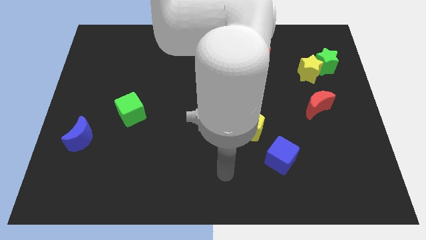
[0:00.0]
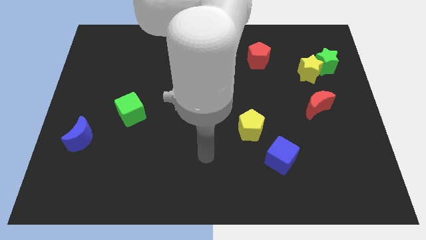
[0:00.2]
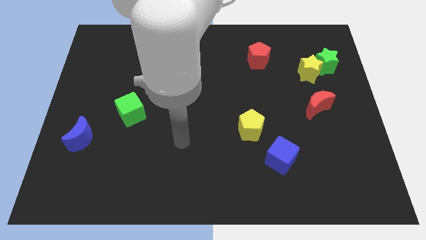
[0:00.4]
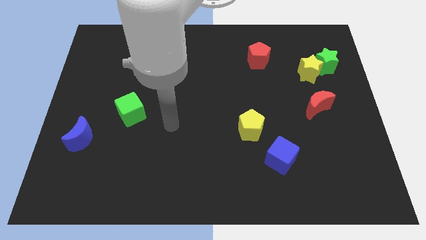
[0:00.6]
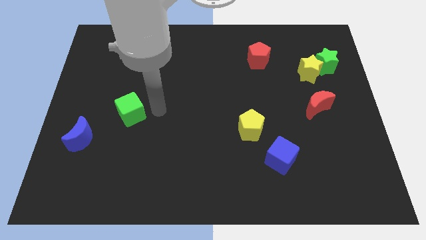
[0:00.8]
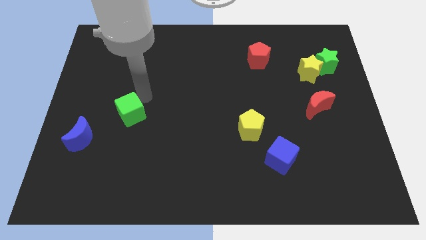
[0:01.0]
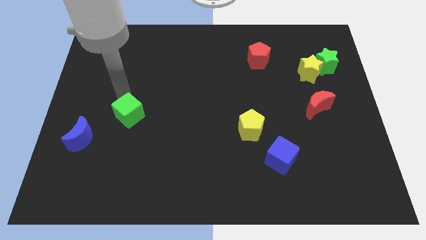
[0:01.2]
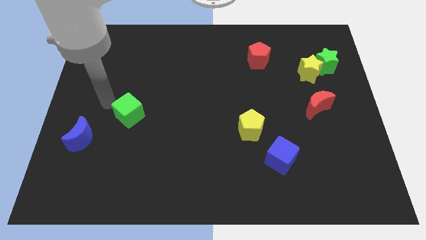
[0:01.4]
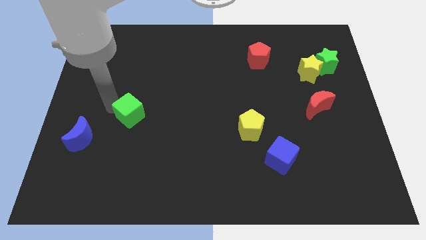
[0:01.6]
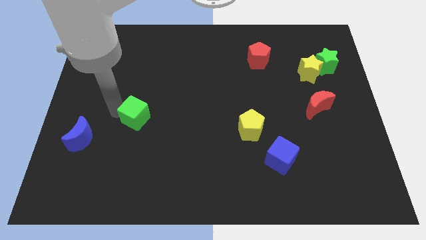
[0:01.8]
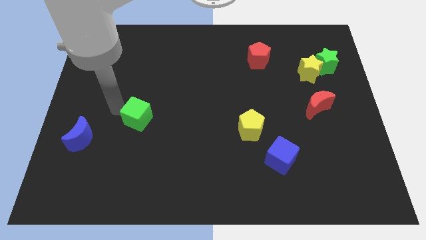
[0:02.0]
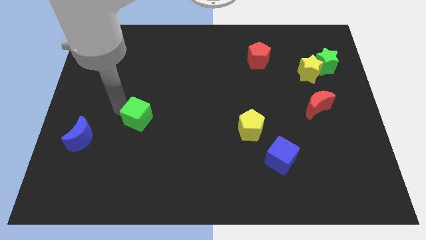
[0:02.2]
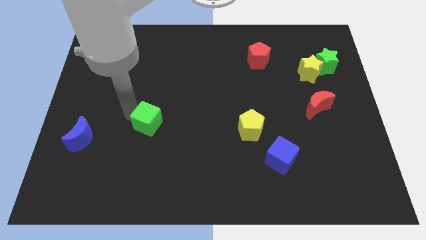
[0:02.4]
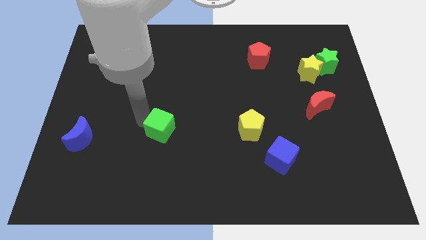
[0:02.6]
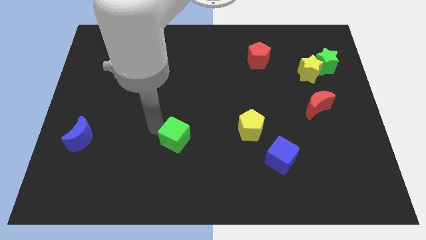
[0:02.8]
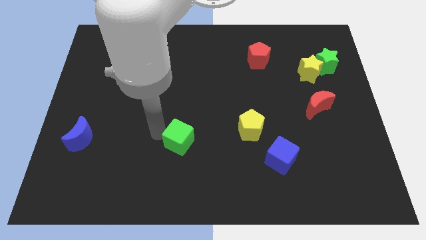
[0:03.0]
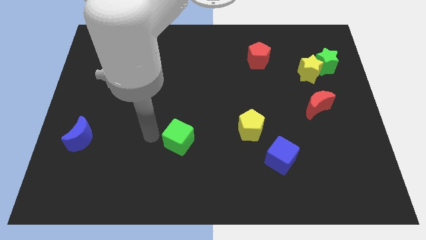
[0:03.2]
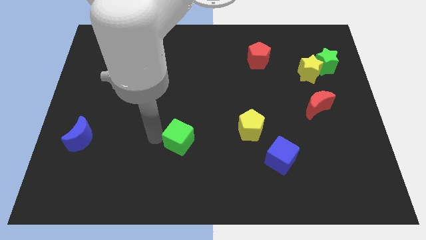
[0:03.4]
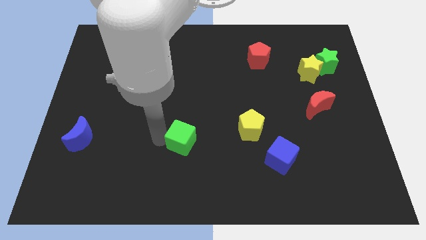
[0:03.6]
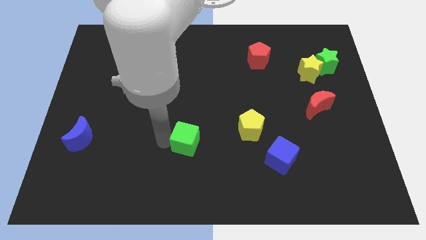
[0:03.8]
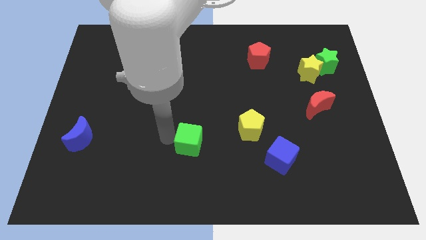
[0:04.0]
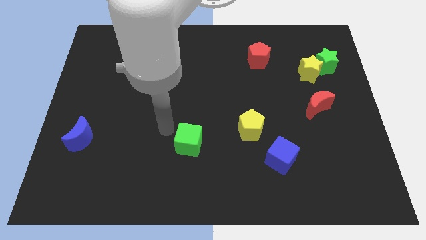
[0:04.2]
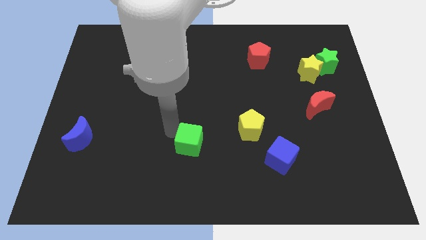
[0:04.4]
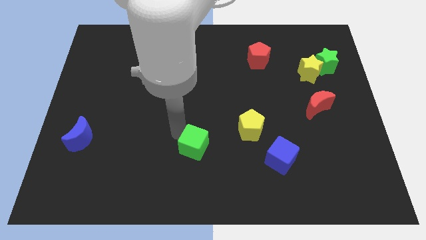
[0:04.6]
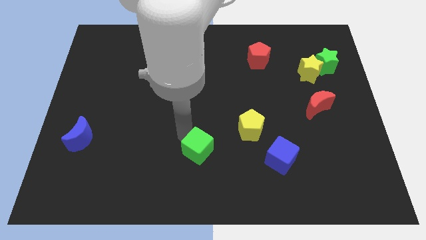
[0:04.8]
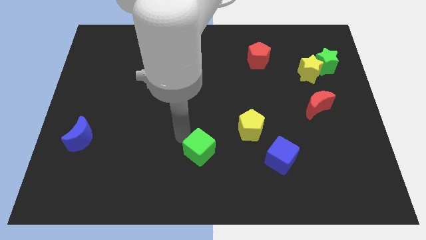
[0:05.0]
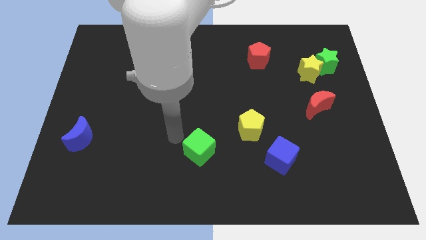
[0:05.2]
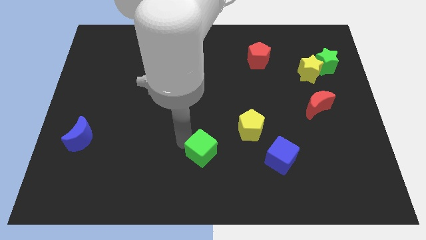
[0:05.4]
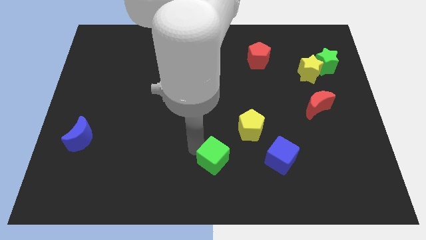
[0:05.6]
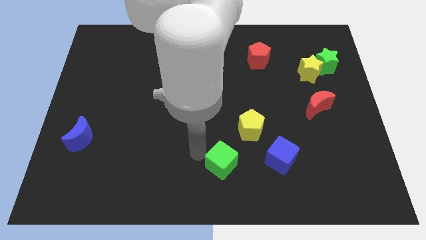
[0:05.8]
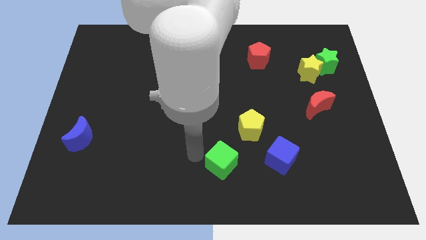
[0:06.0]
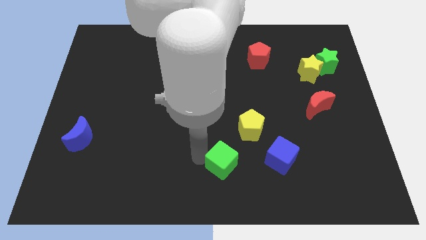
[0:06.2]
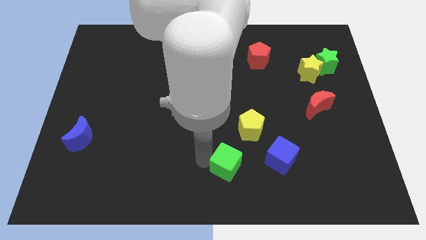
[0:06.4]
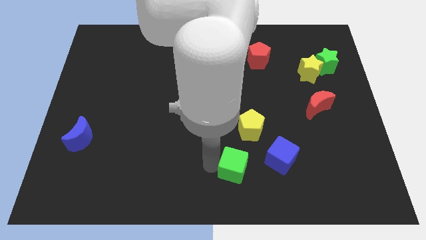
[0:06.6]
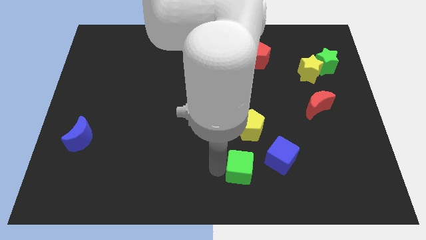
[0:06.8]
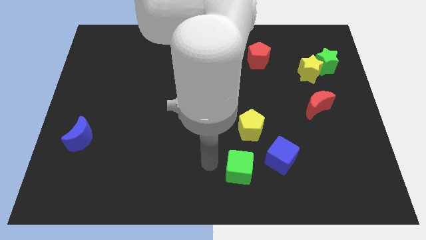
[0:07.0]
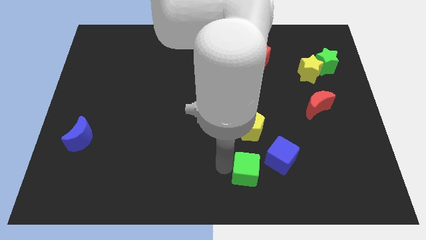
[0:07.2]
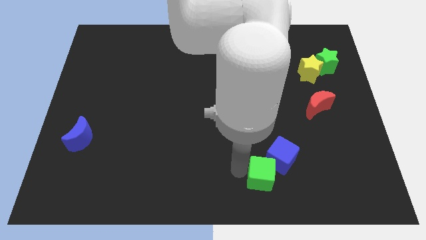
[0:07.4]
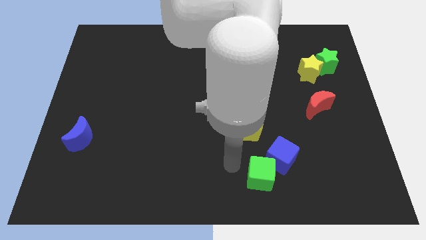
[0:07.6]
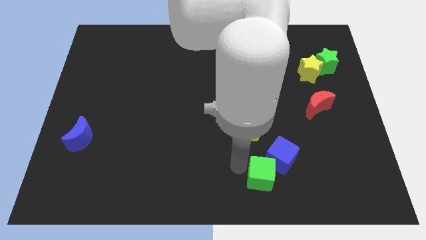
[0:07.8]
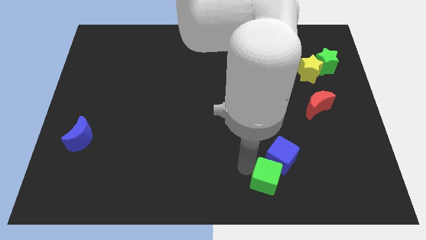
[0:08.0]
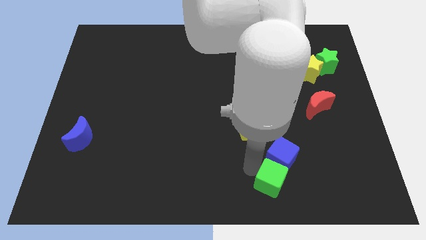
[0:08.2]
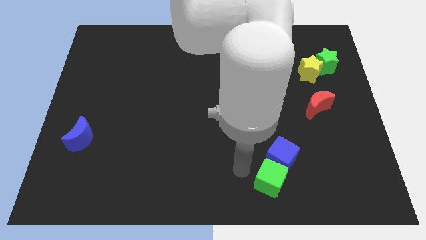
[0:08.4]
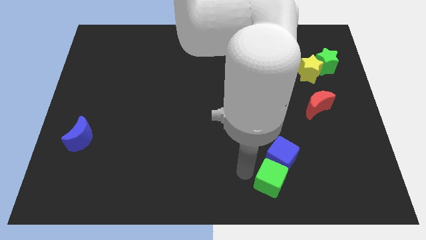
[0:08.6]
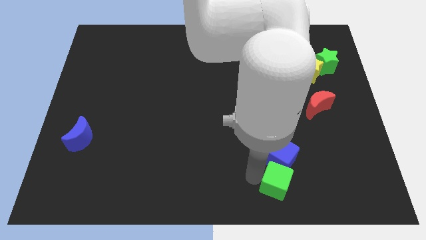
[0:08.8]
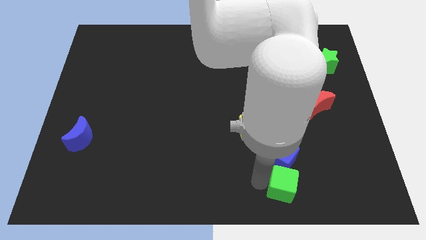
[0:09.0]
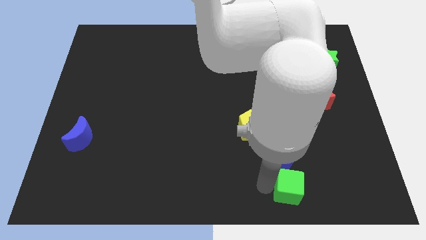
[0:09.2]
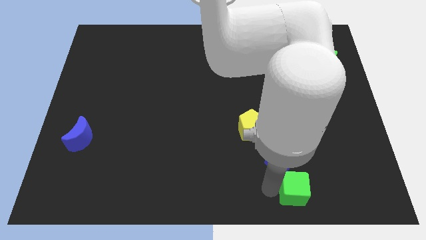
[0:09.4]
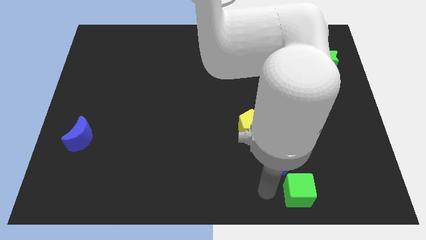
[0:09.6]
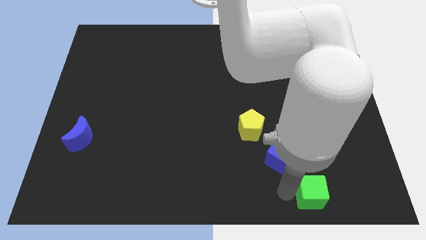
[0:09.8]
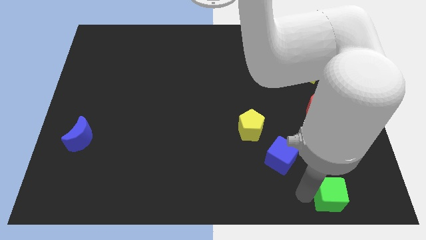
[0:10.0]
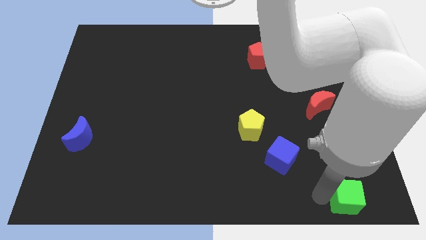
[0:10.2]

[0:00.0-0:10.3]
slide the green cube to the bottom right

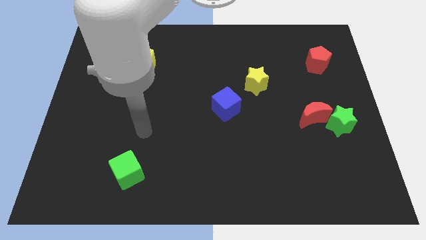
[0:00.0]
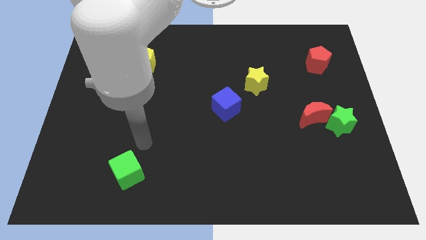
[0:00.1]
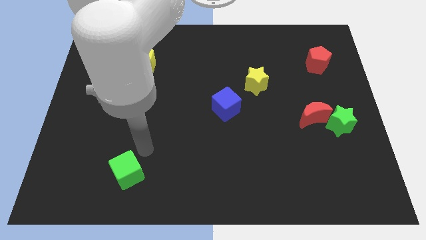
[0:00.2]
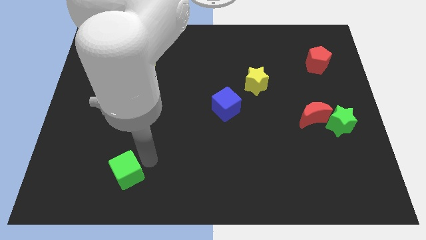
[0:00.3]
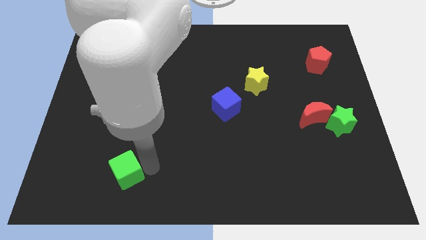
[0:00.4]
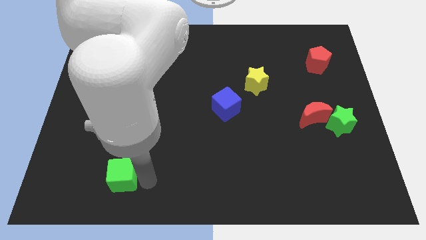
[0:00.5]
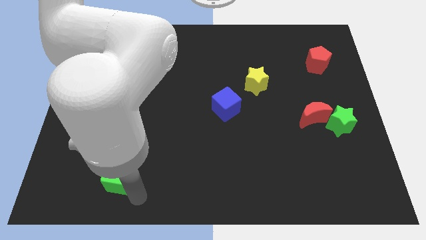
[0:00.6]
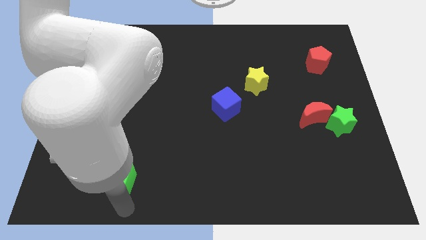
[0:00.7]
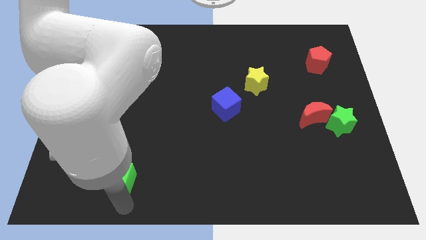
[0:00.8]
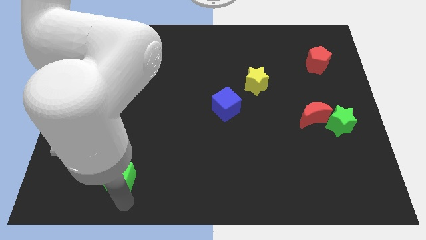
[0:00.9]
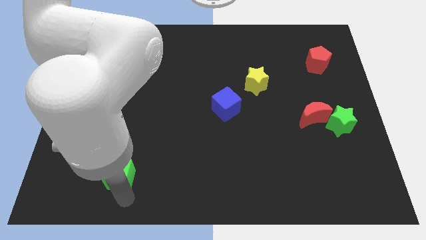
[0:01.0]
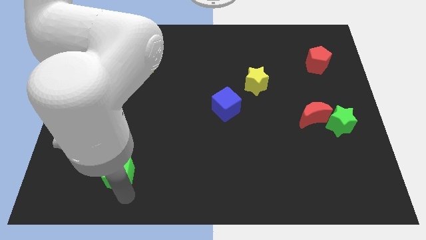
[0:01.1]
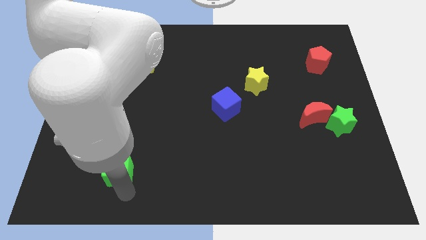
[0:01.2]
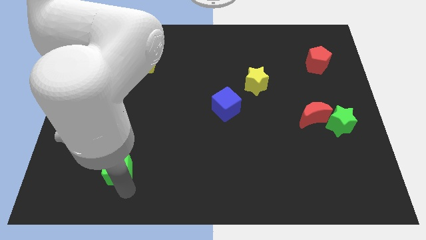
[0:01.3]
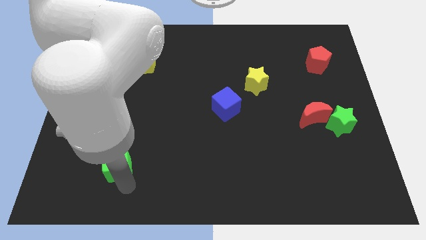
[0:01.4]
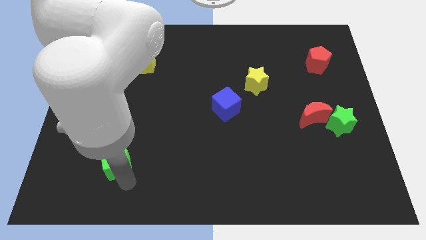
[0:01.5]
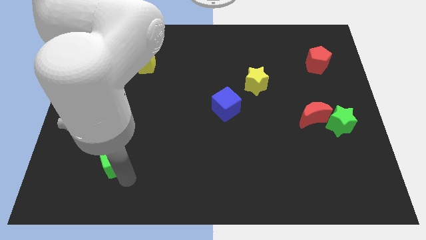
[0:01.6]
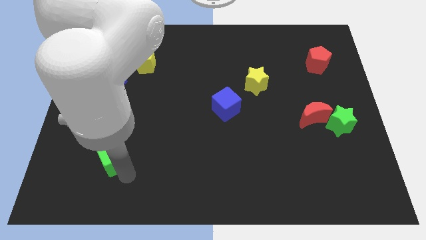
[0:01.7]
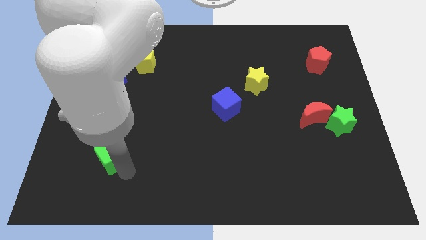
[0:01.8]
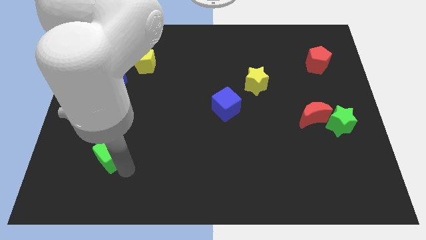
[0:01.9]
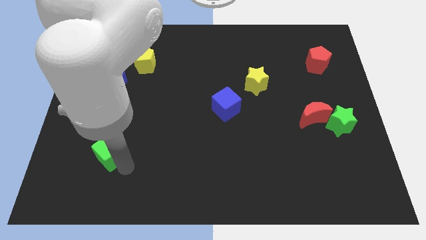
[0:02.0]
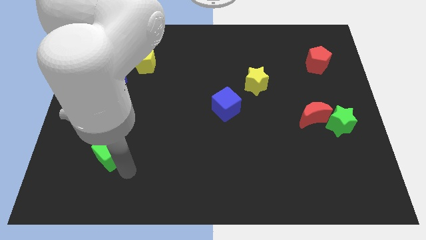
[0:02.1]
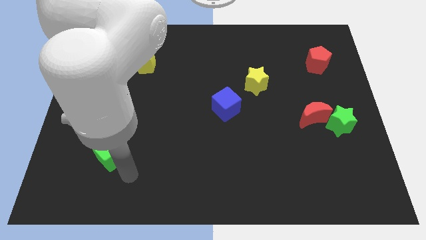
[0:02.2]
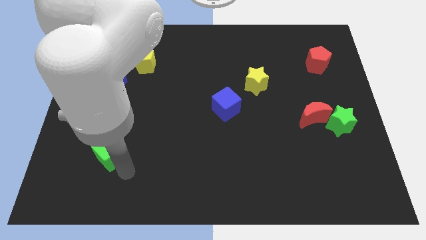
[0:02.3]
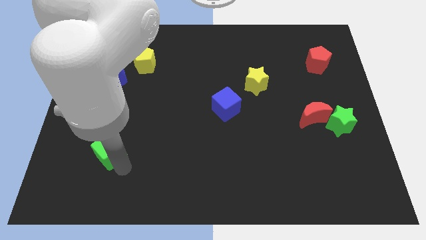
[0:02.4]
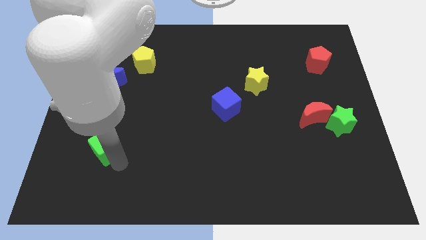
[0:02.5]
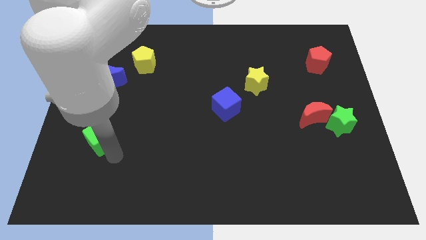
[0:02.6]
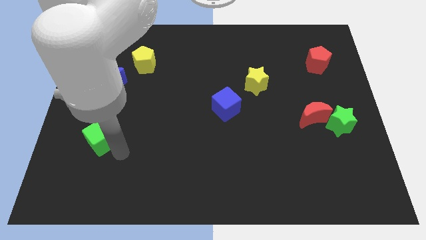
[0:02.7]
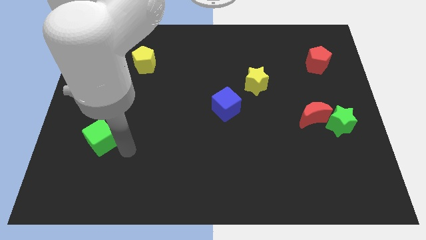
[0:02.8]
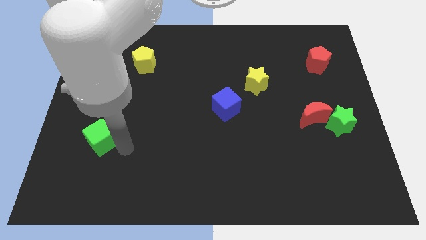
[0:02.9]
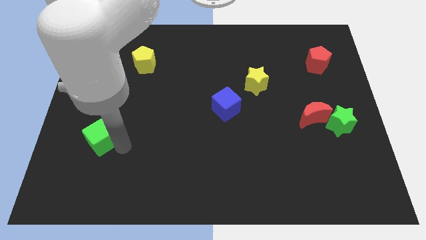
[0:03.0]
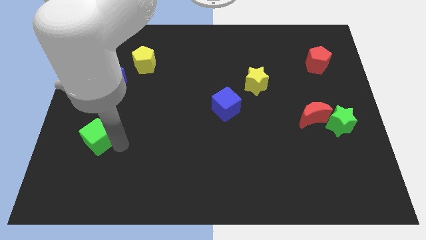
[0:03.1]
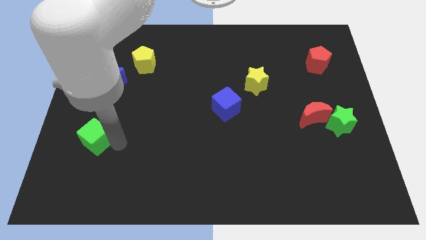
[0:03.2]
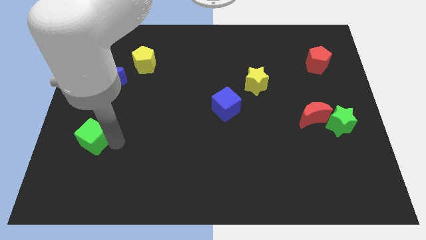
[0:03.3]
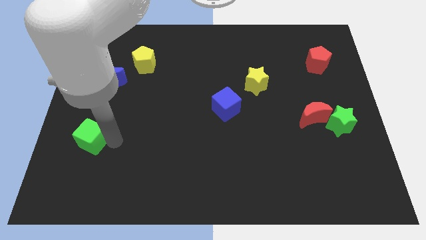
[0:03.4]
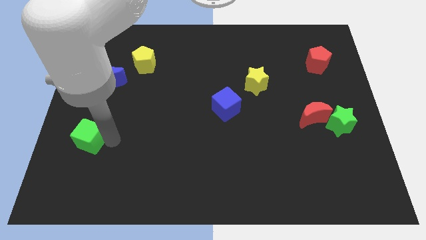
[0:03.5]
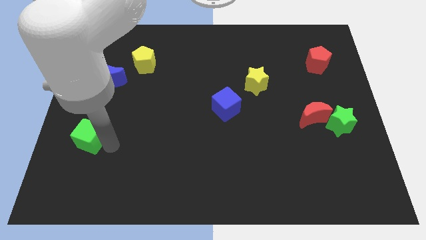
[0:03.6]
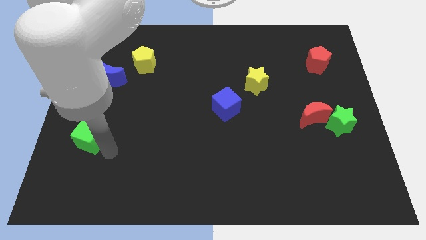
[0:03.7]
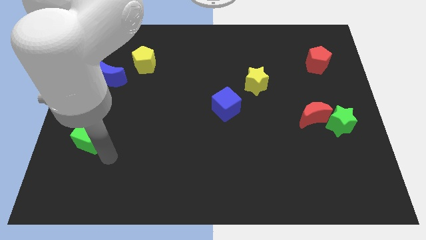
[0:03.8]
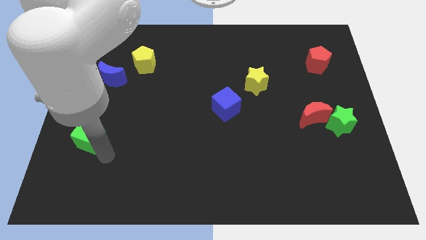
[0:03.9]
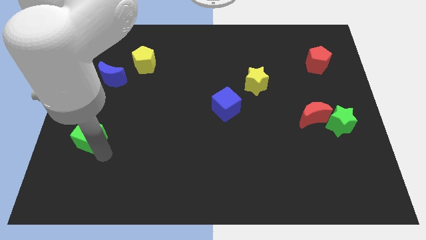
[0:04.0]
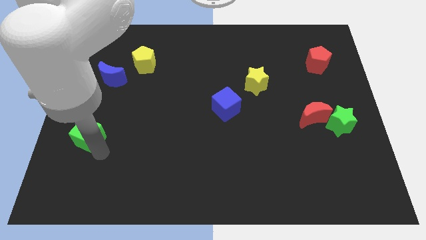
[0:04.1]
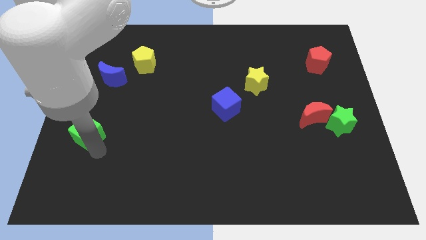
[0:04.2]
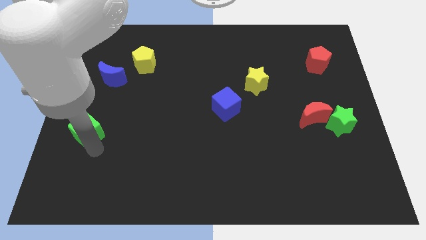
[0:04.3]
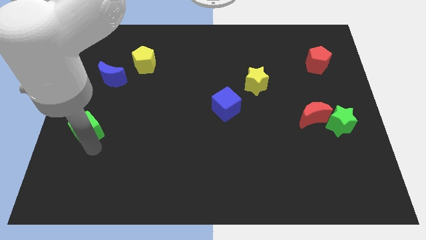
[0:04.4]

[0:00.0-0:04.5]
put the green cube to the center left
